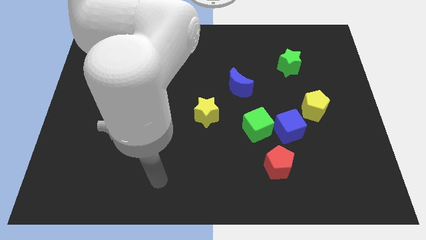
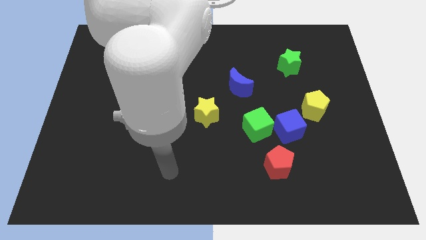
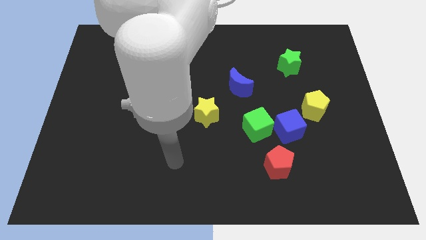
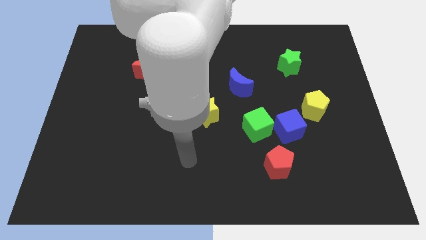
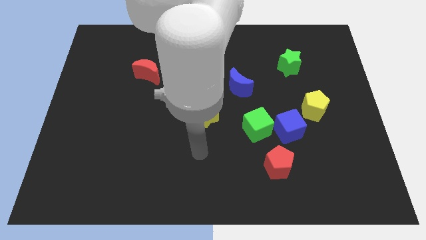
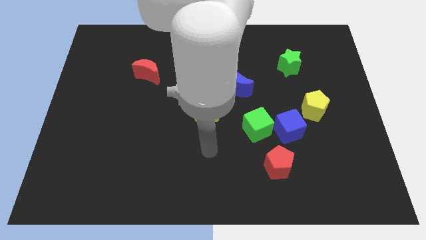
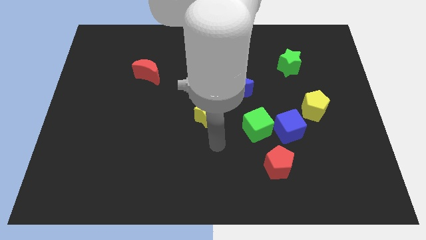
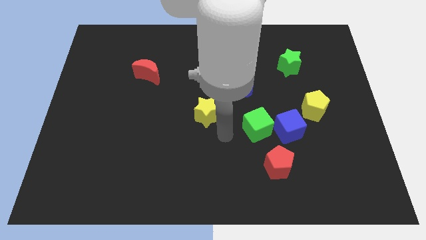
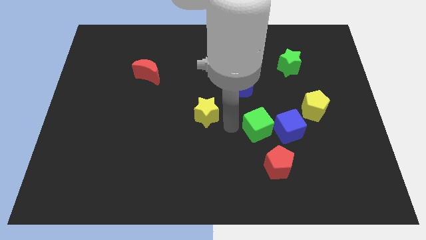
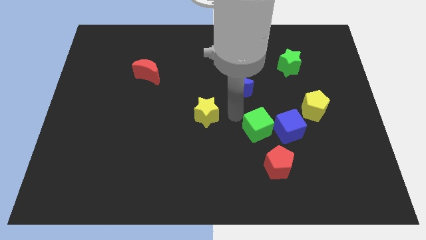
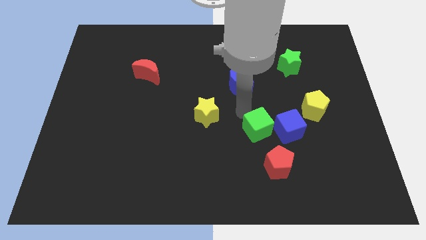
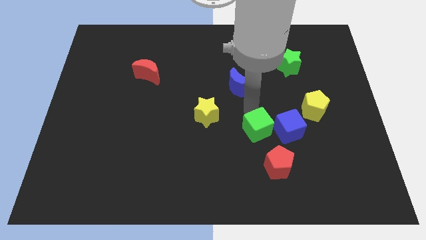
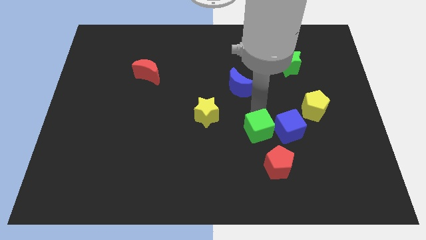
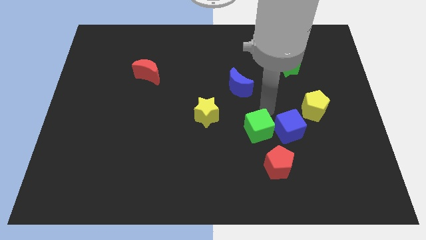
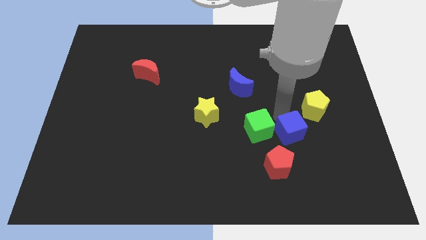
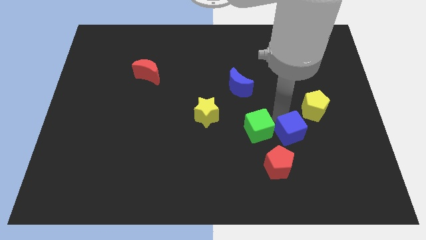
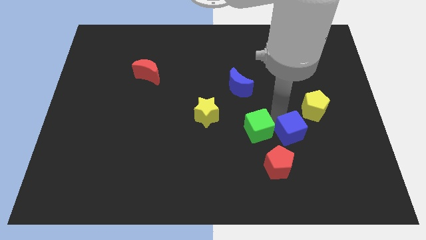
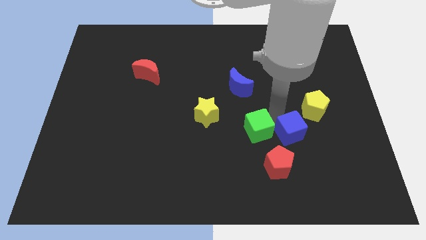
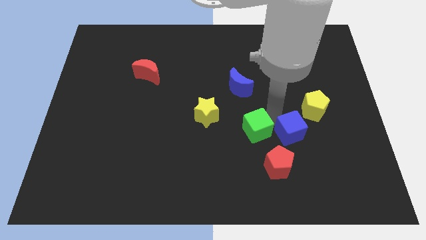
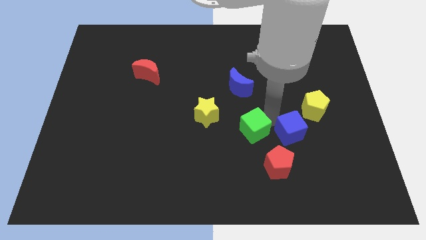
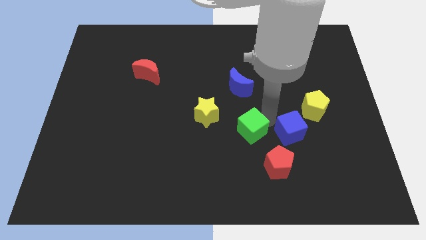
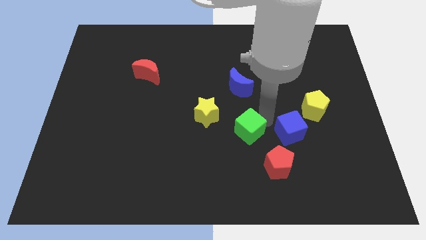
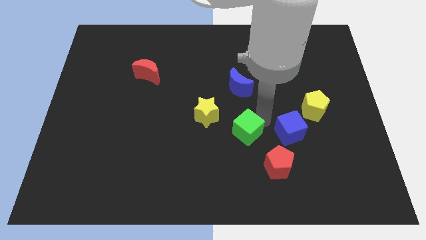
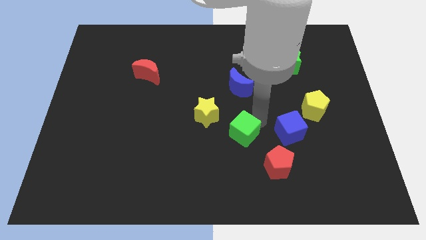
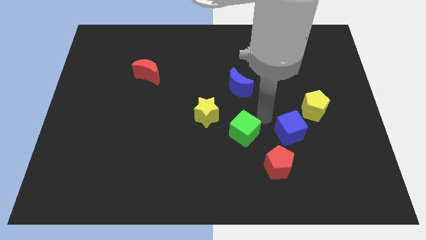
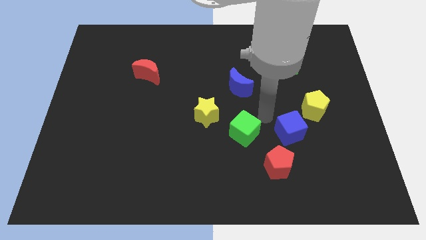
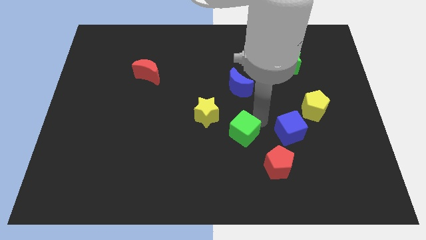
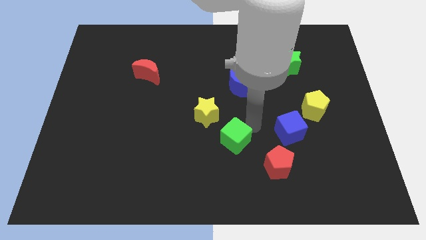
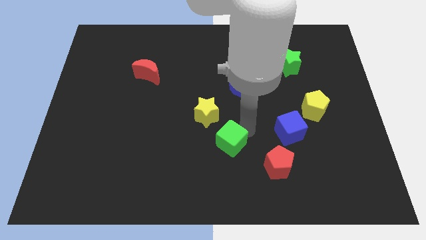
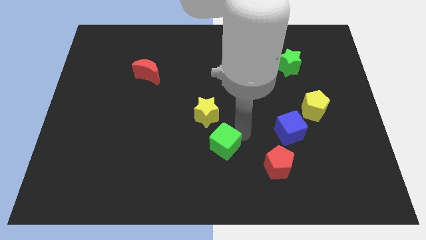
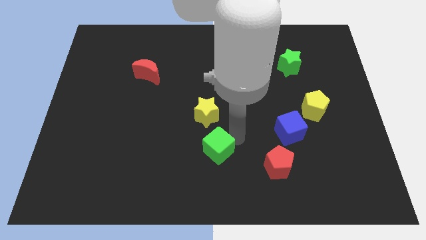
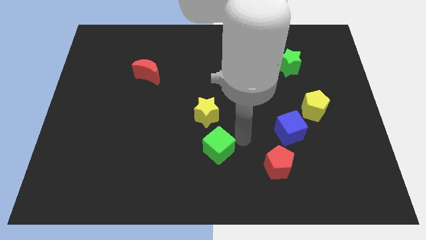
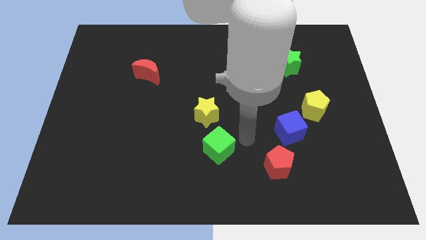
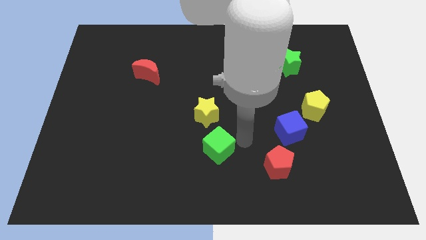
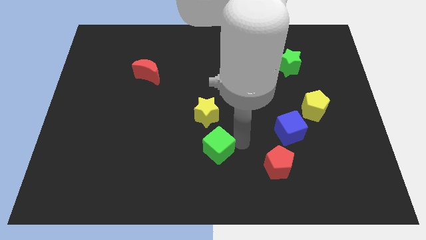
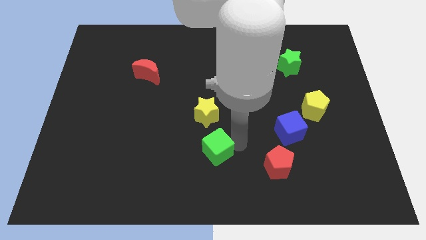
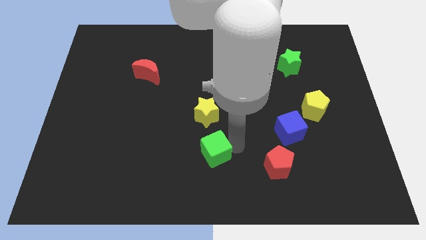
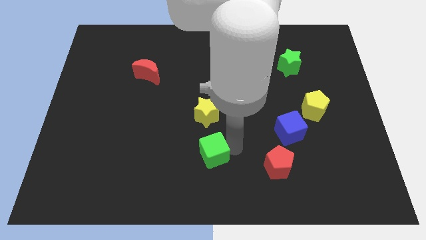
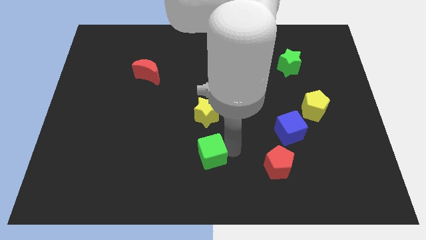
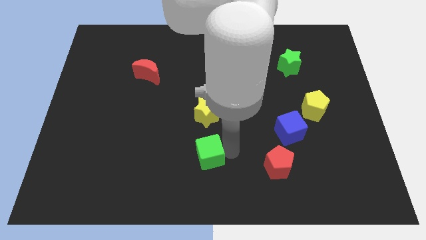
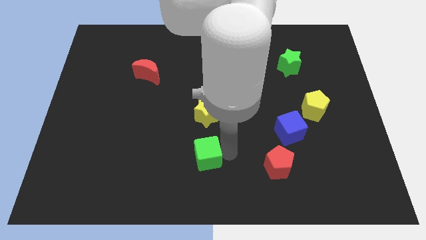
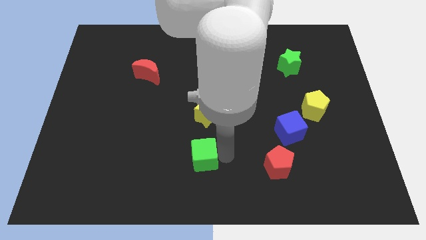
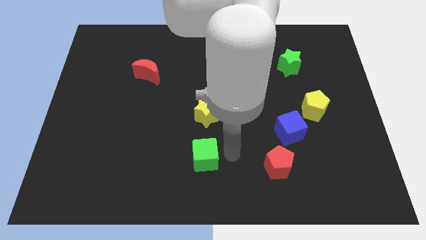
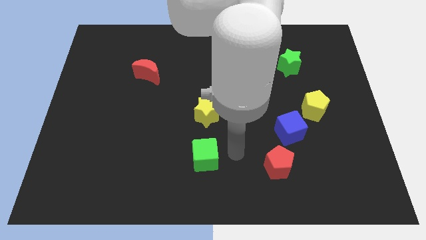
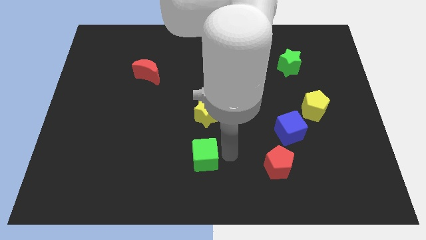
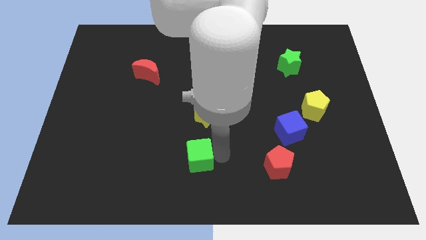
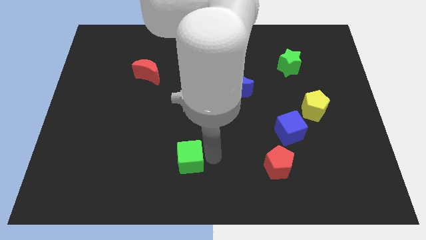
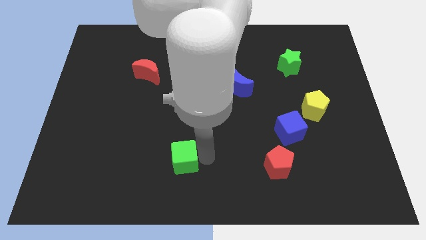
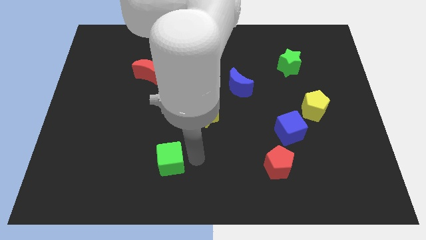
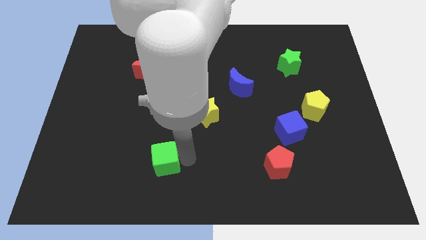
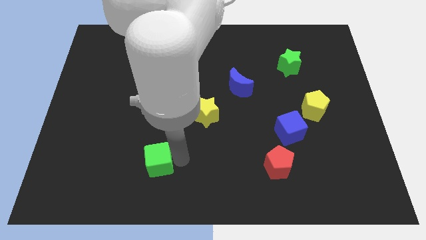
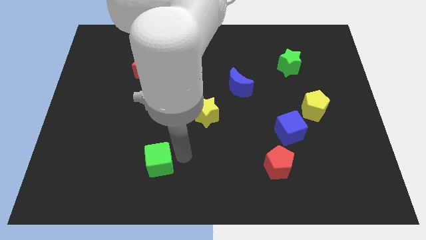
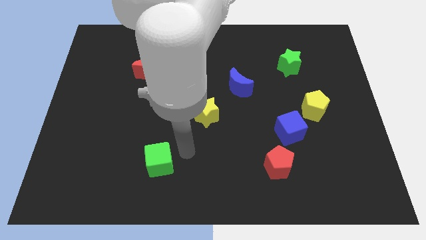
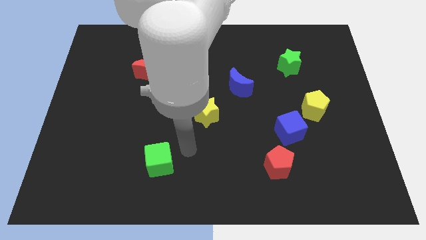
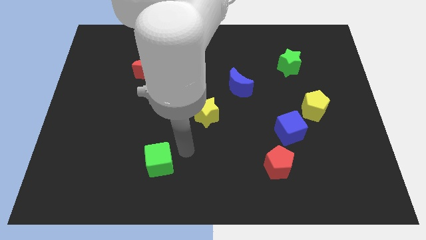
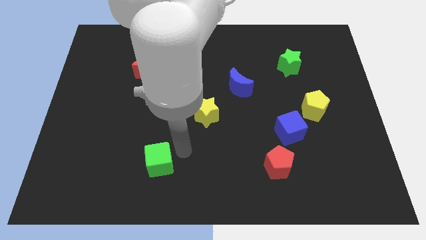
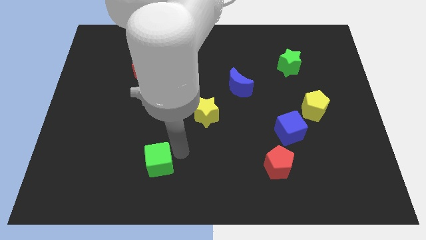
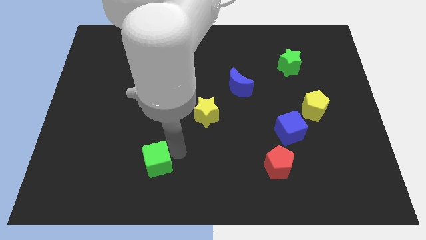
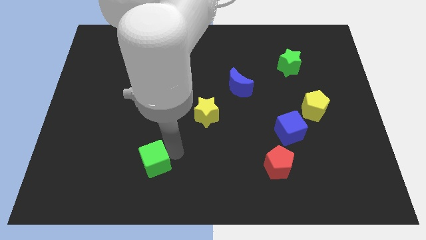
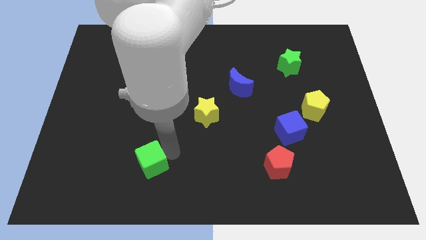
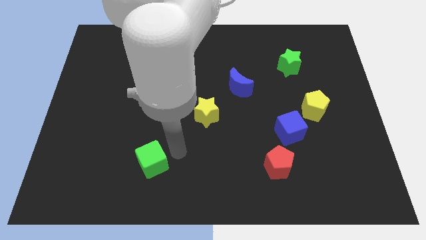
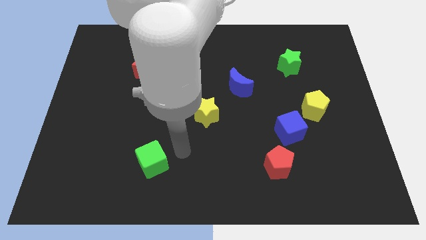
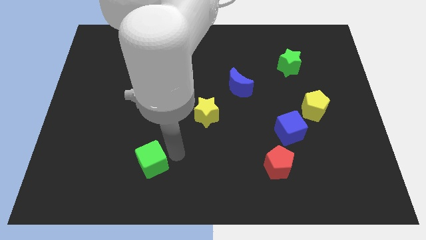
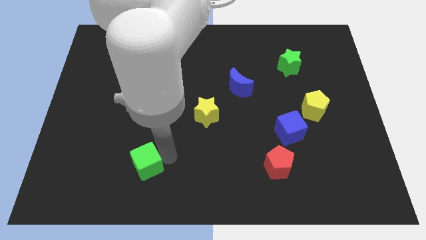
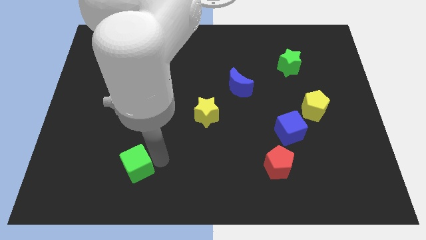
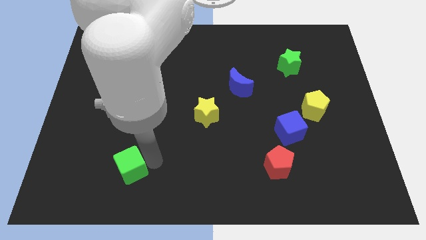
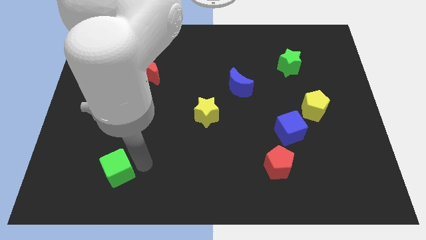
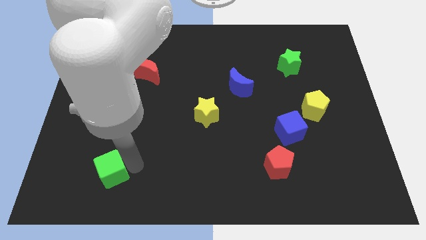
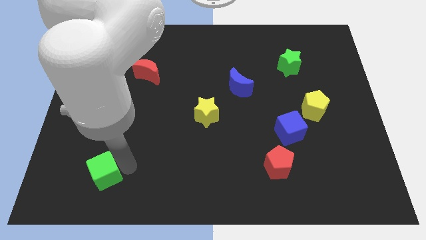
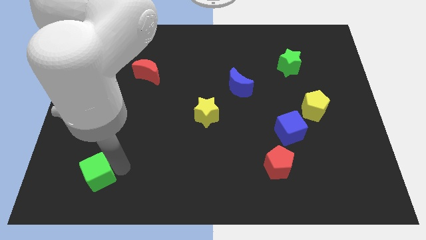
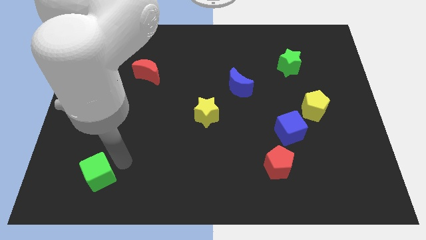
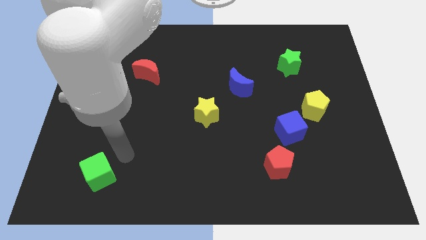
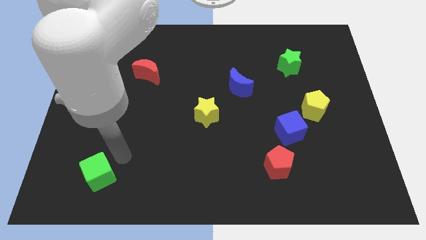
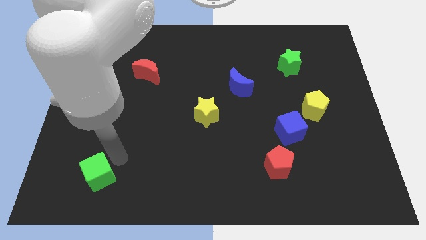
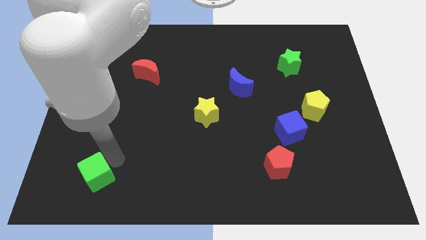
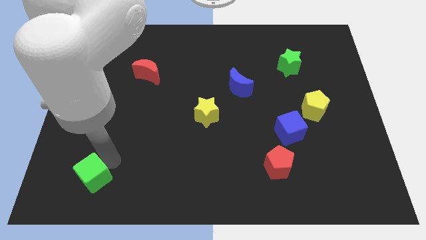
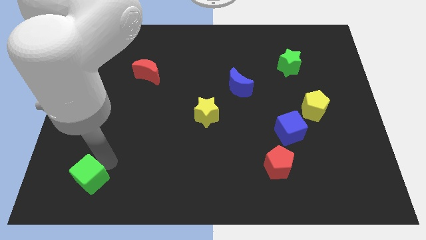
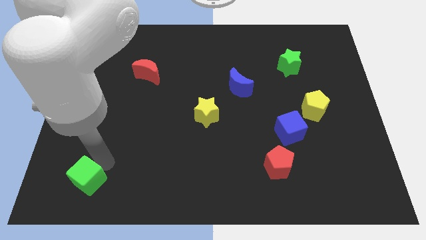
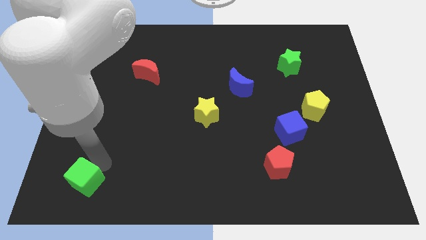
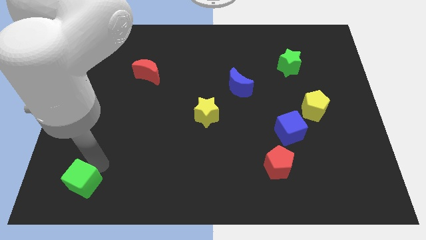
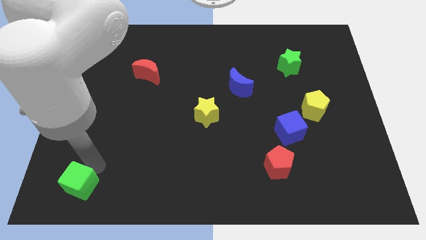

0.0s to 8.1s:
move the green cube to the lower left corner
